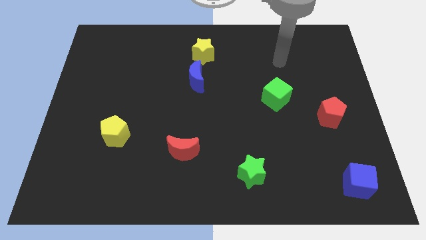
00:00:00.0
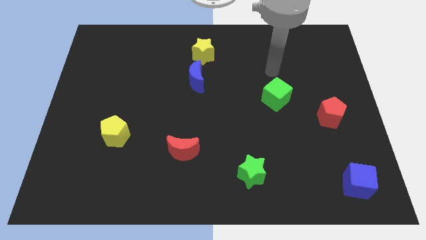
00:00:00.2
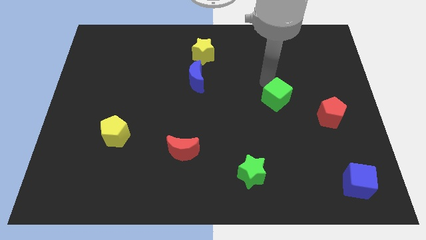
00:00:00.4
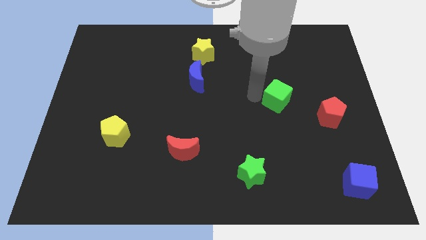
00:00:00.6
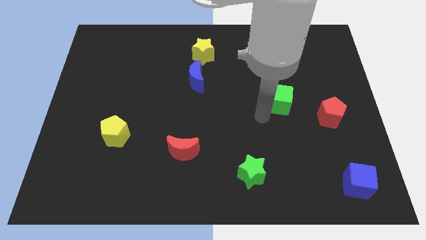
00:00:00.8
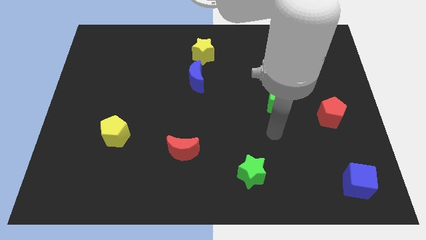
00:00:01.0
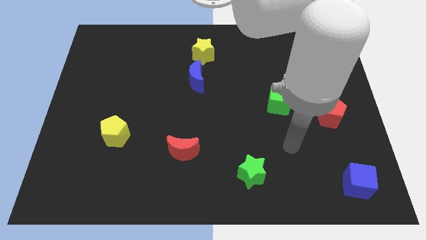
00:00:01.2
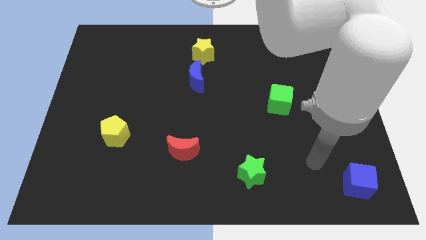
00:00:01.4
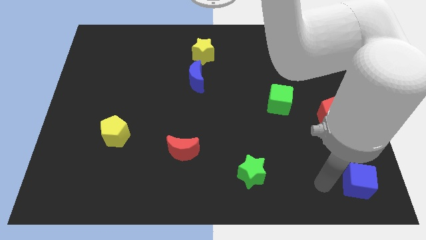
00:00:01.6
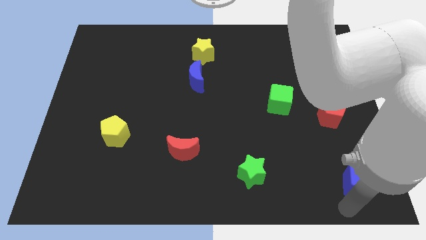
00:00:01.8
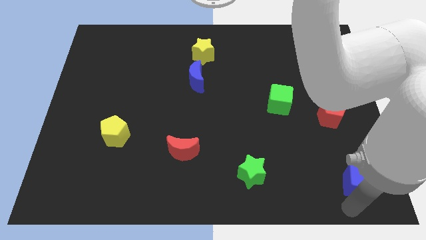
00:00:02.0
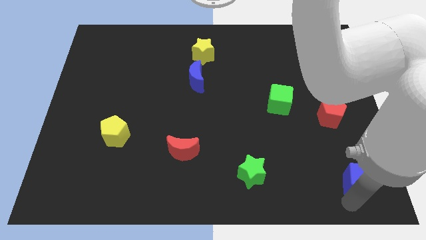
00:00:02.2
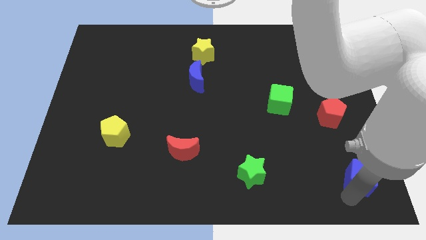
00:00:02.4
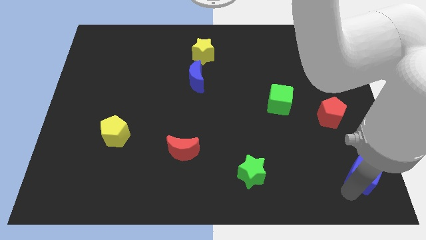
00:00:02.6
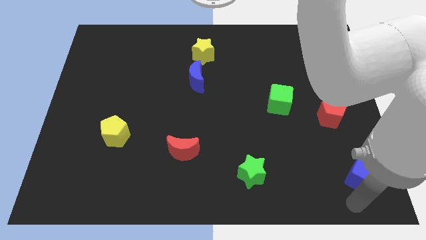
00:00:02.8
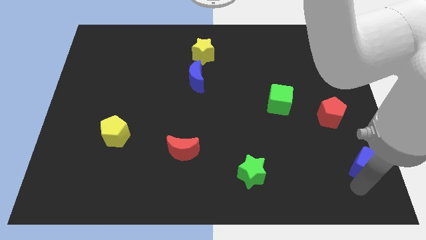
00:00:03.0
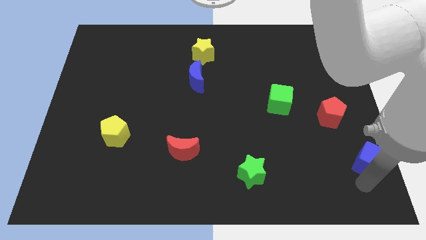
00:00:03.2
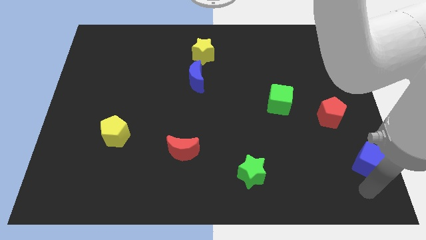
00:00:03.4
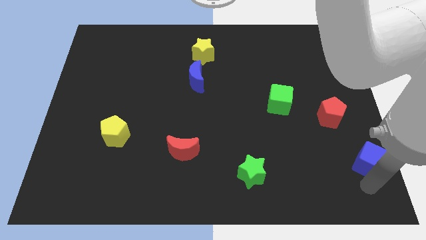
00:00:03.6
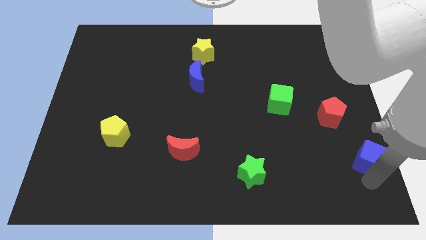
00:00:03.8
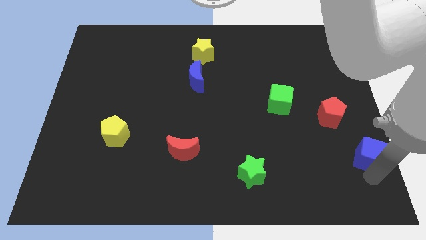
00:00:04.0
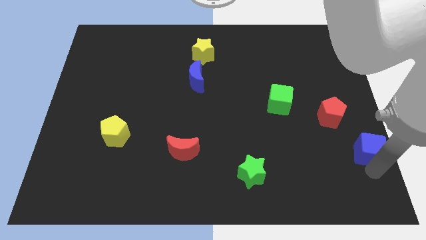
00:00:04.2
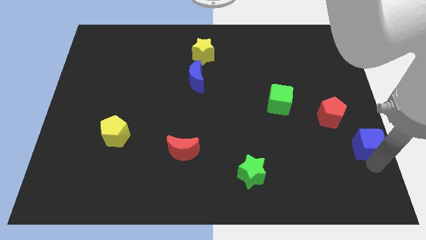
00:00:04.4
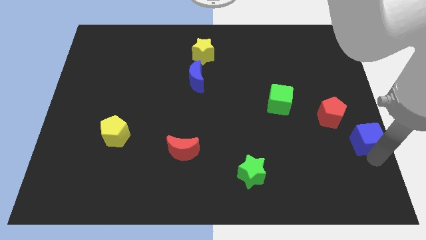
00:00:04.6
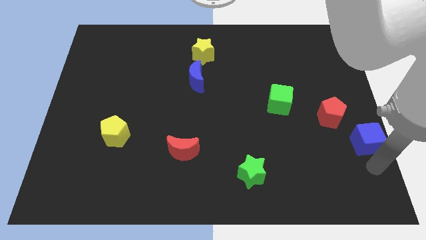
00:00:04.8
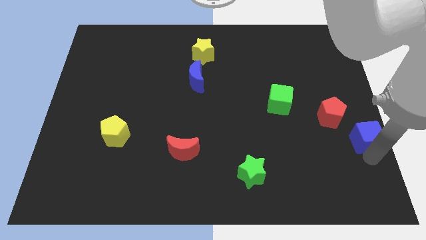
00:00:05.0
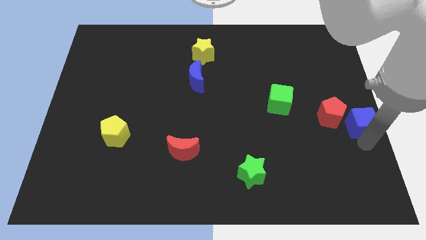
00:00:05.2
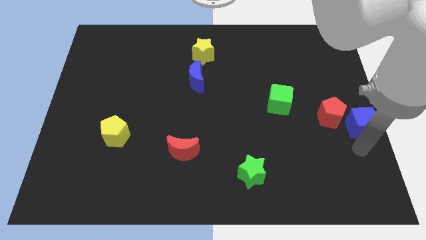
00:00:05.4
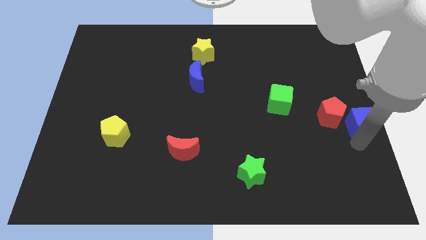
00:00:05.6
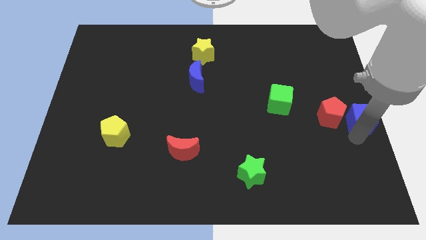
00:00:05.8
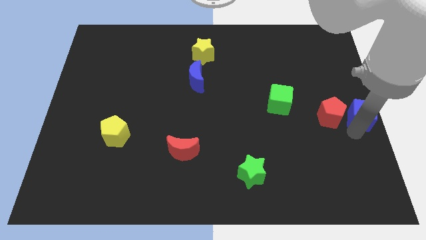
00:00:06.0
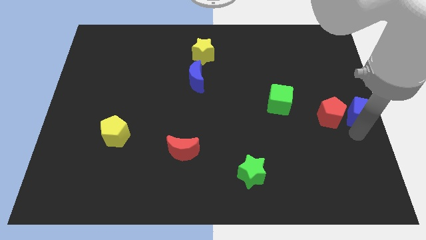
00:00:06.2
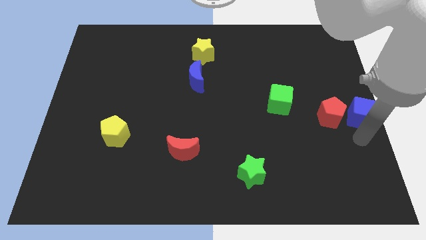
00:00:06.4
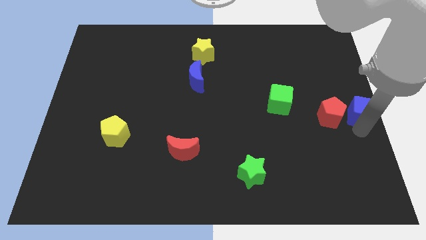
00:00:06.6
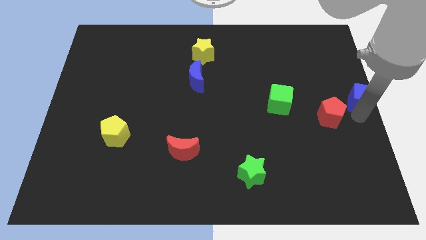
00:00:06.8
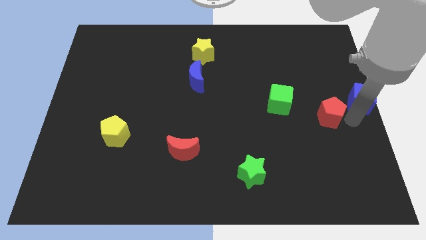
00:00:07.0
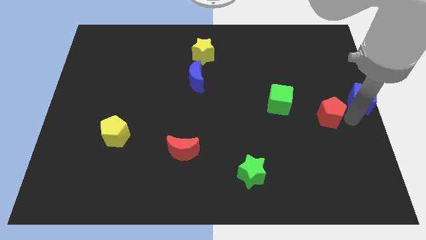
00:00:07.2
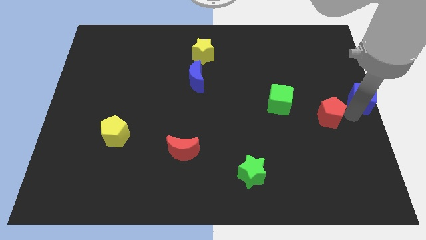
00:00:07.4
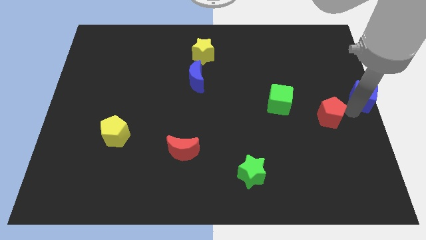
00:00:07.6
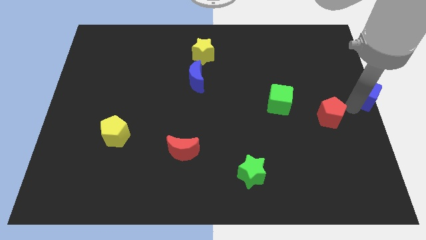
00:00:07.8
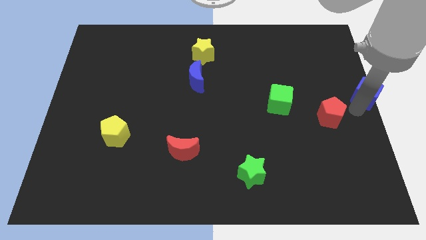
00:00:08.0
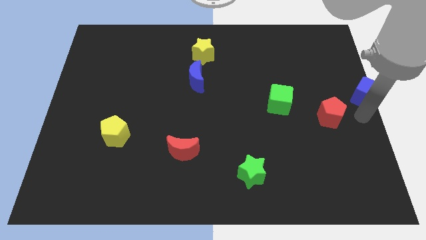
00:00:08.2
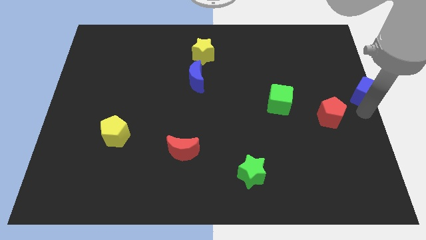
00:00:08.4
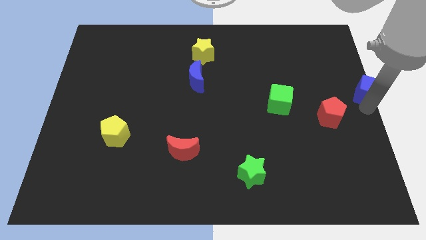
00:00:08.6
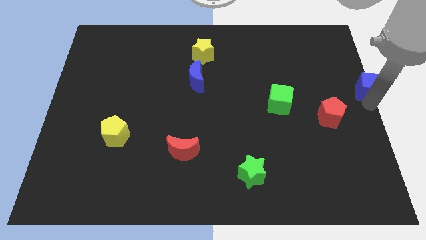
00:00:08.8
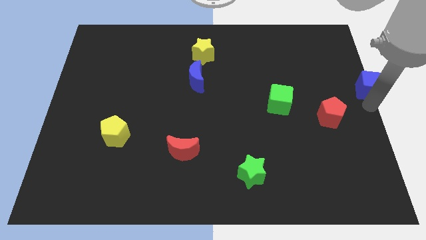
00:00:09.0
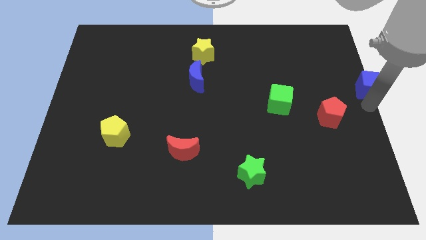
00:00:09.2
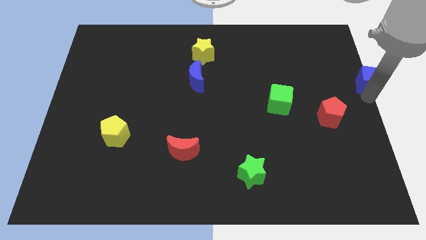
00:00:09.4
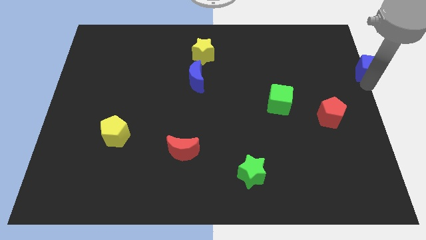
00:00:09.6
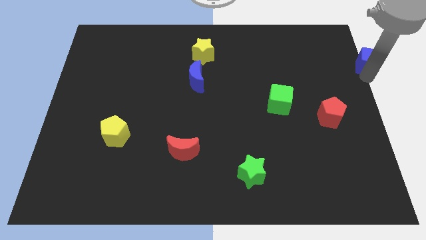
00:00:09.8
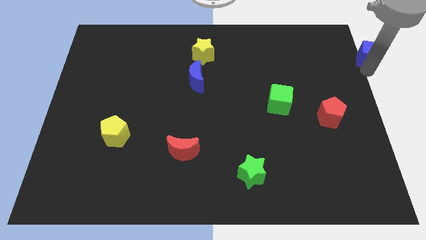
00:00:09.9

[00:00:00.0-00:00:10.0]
move the blue cube to the upper right corner

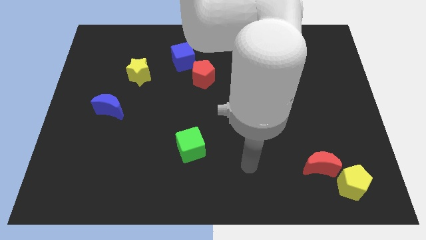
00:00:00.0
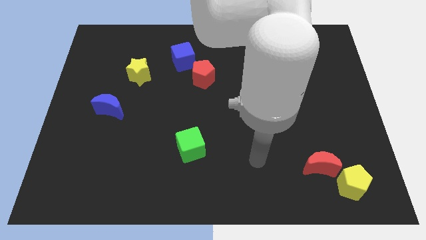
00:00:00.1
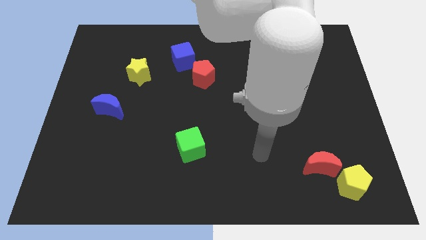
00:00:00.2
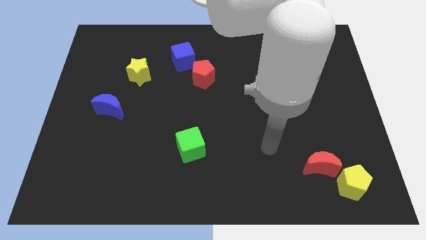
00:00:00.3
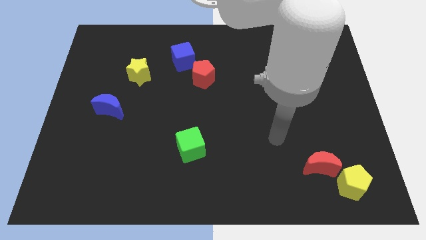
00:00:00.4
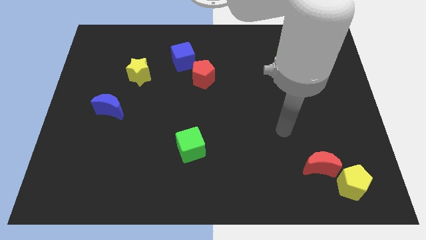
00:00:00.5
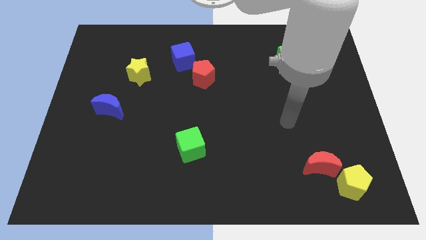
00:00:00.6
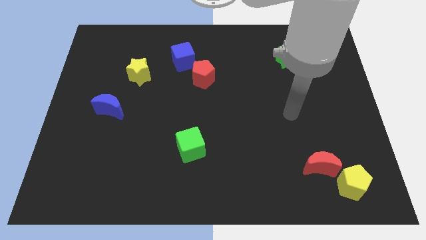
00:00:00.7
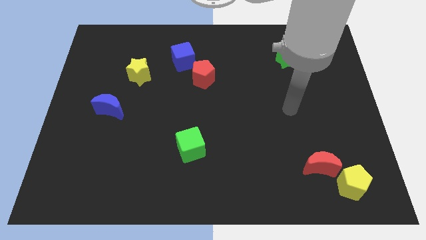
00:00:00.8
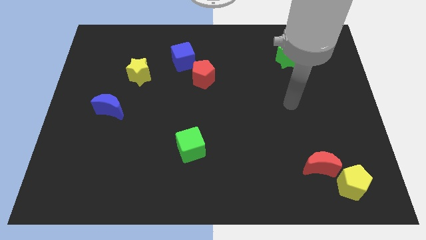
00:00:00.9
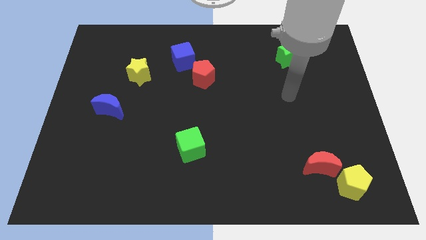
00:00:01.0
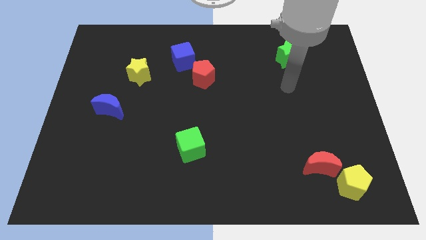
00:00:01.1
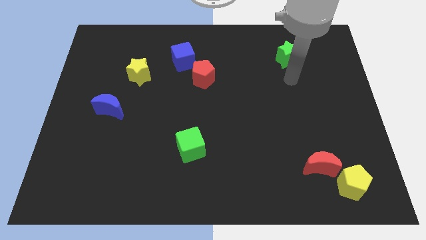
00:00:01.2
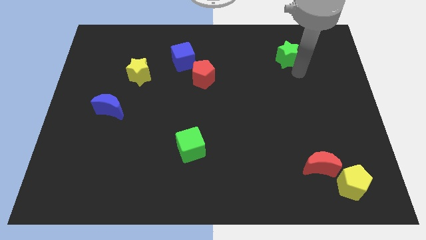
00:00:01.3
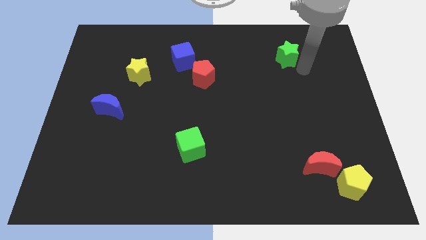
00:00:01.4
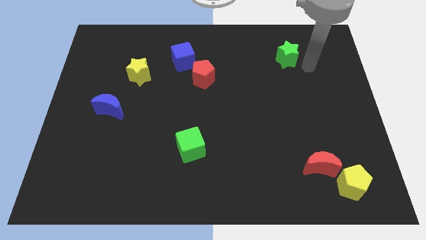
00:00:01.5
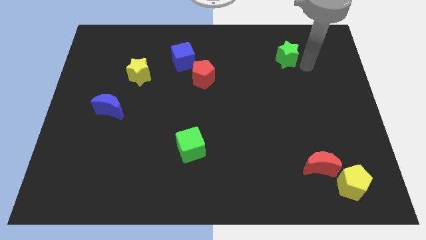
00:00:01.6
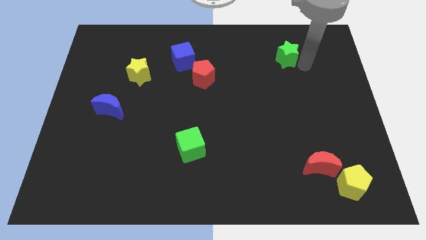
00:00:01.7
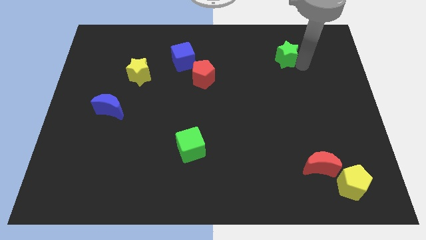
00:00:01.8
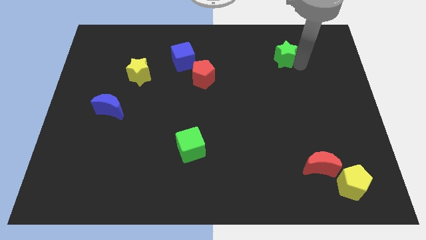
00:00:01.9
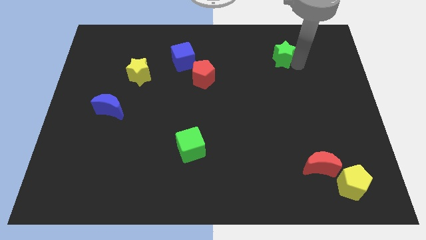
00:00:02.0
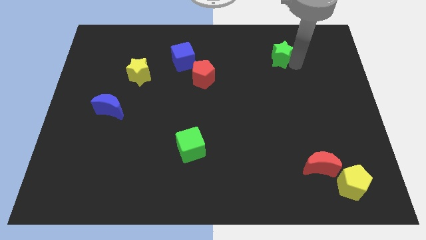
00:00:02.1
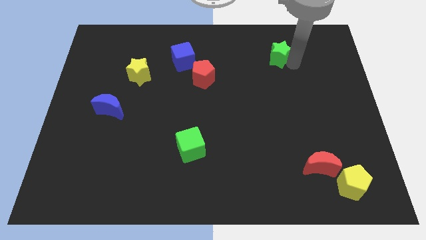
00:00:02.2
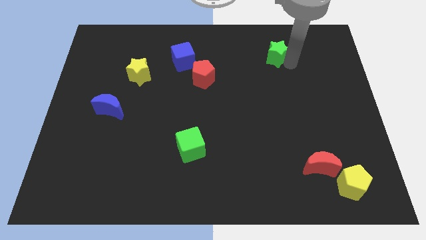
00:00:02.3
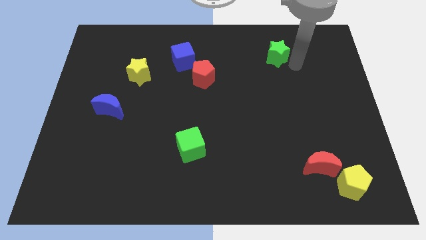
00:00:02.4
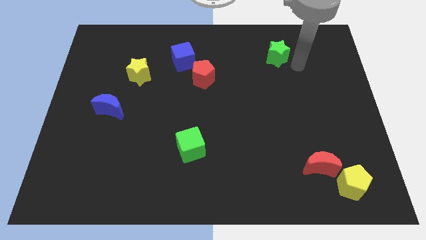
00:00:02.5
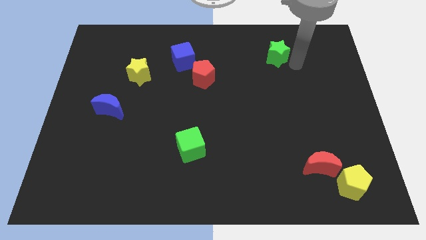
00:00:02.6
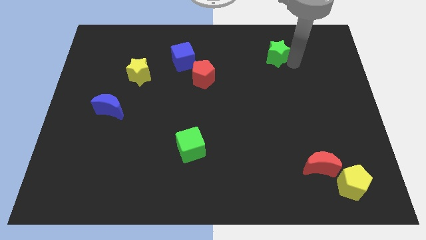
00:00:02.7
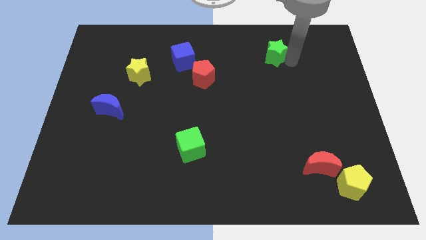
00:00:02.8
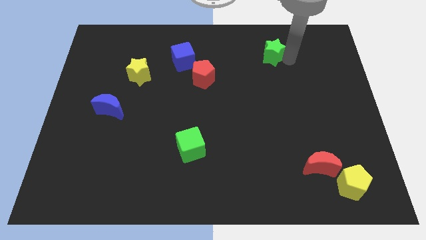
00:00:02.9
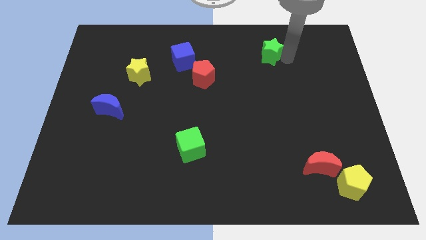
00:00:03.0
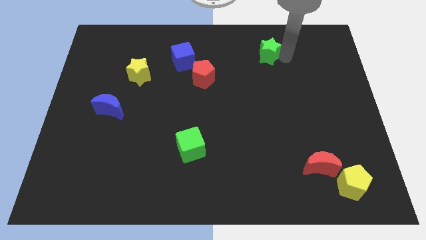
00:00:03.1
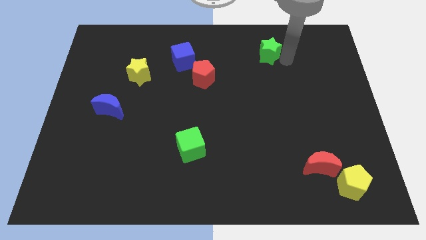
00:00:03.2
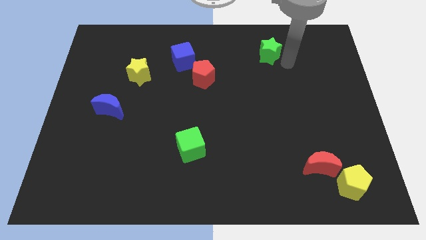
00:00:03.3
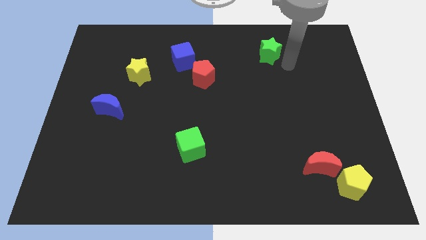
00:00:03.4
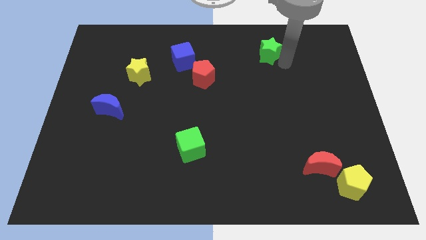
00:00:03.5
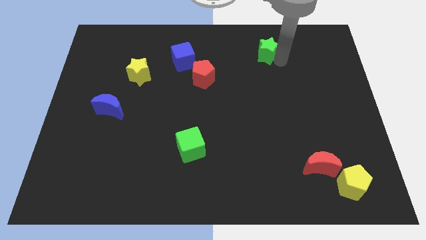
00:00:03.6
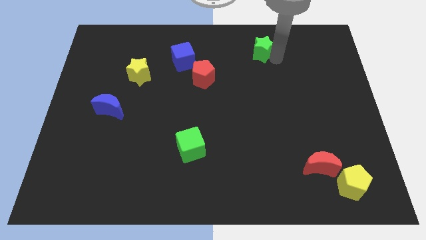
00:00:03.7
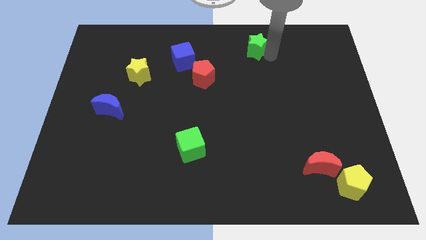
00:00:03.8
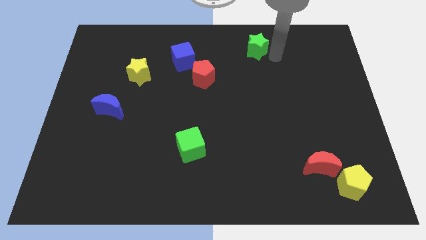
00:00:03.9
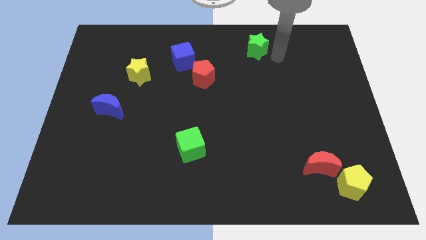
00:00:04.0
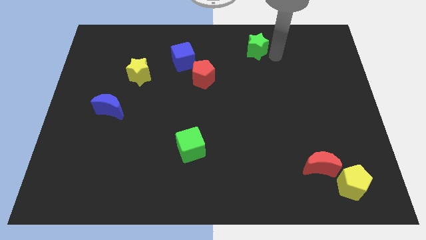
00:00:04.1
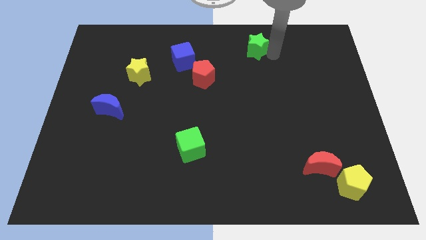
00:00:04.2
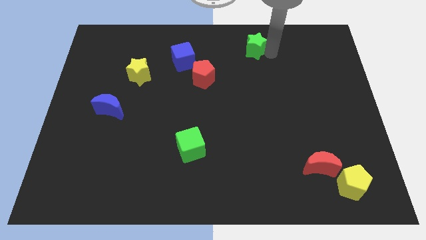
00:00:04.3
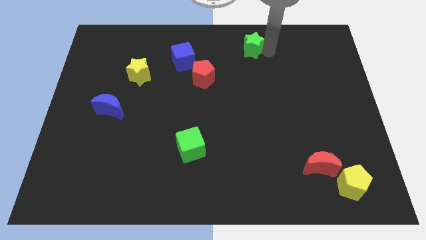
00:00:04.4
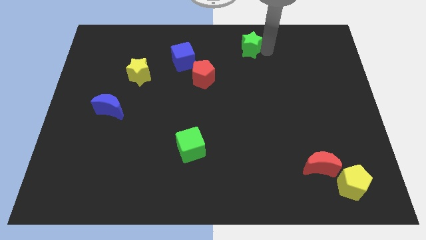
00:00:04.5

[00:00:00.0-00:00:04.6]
slide the green star to the top side
